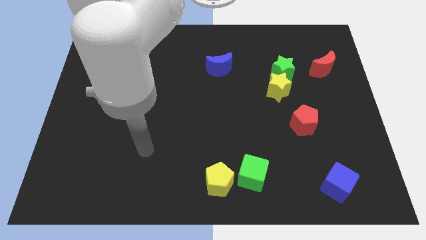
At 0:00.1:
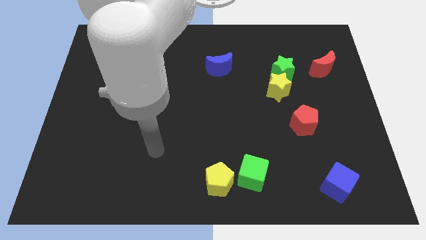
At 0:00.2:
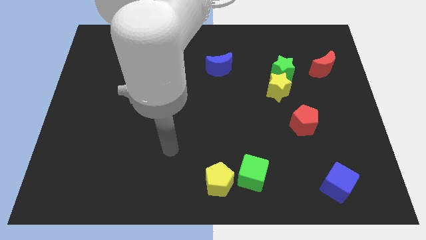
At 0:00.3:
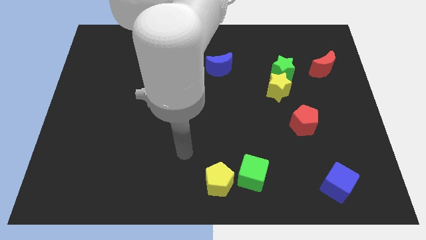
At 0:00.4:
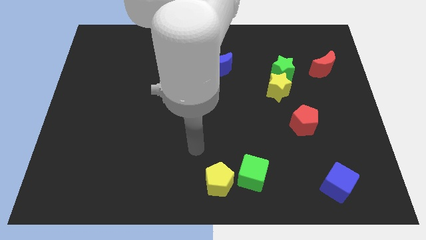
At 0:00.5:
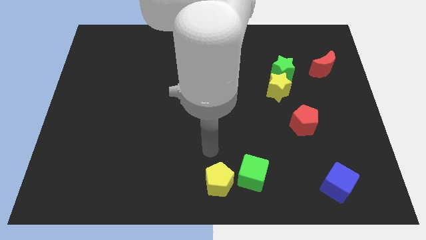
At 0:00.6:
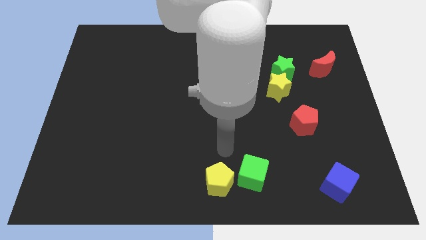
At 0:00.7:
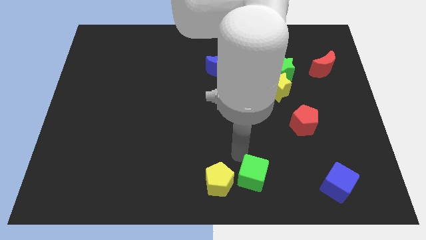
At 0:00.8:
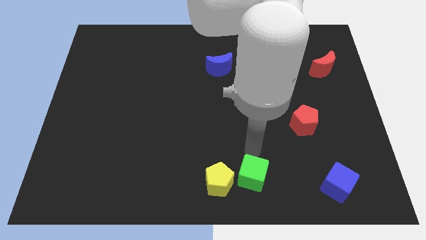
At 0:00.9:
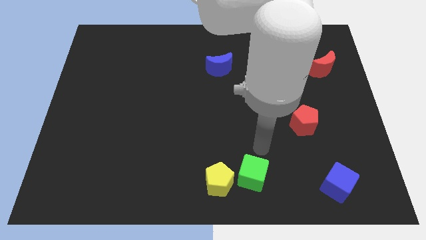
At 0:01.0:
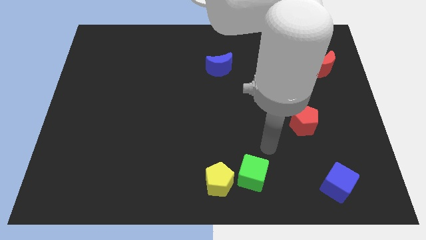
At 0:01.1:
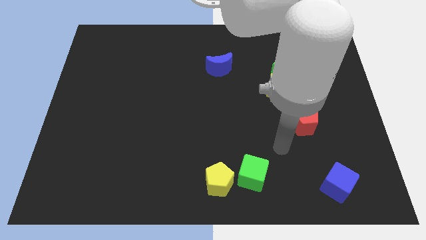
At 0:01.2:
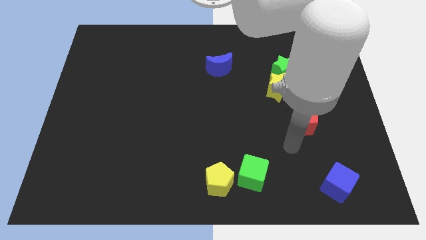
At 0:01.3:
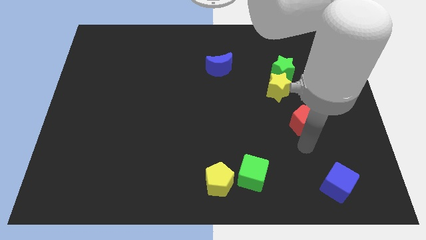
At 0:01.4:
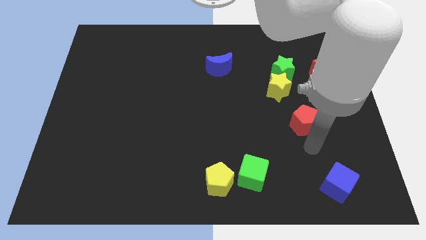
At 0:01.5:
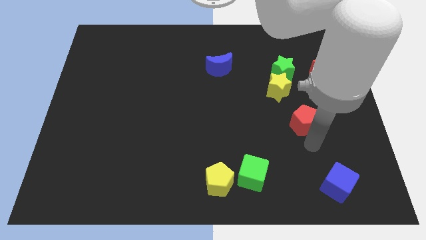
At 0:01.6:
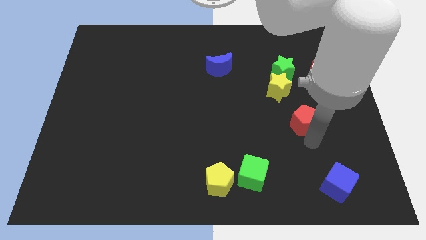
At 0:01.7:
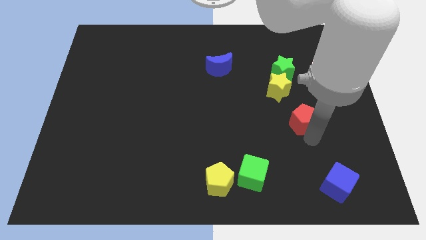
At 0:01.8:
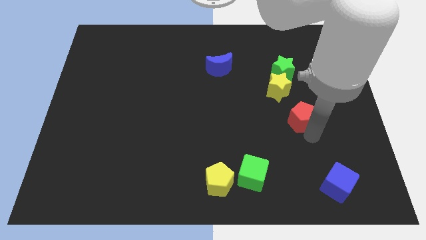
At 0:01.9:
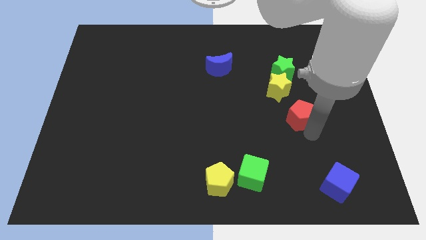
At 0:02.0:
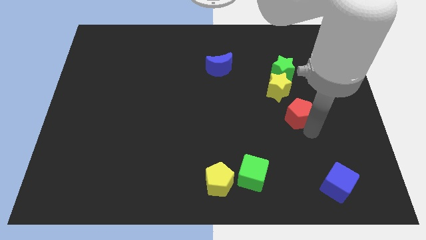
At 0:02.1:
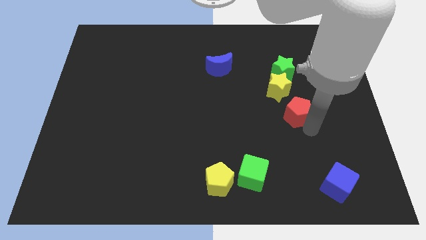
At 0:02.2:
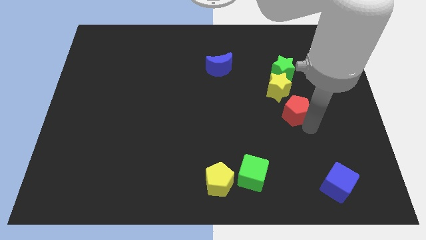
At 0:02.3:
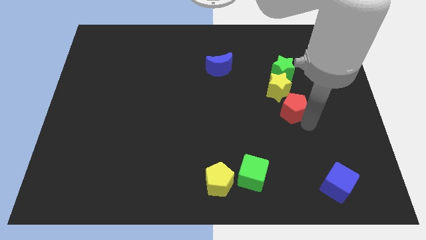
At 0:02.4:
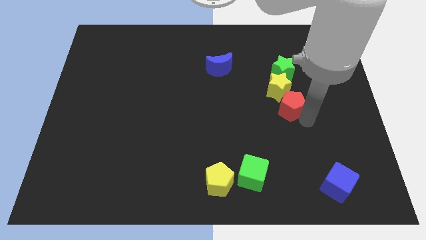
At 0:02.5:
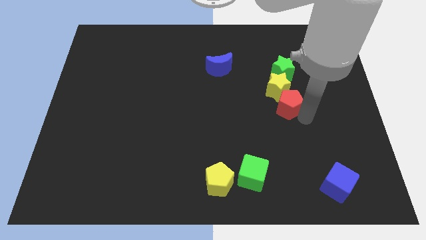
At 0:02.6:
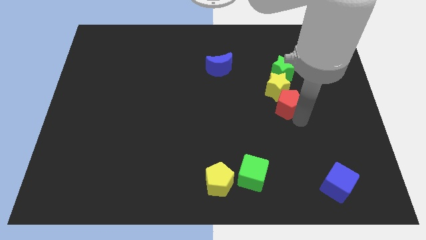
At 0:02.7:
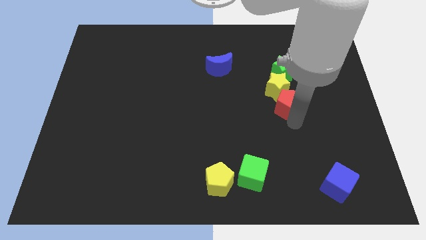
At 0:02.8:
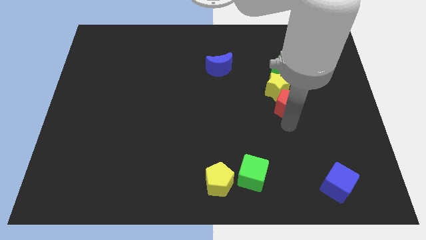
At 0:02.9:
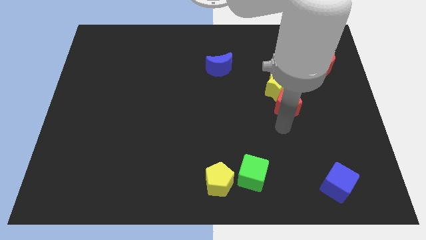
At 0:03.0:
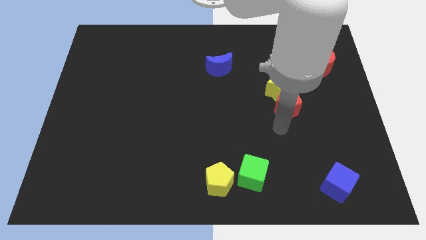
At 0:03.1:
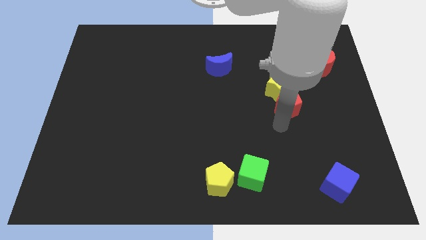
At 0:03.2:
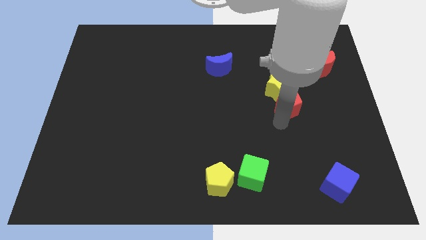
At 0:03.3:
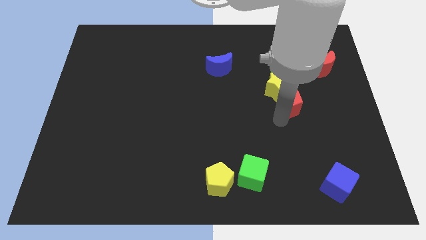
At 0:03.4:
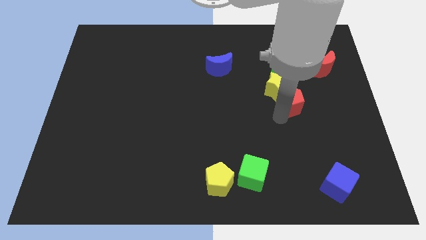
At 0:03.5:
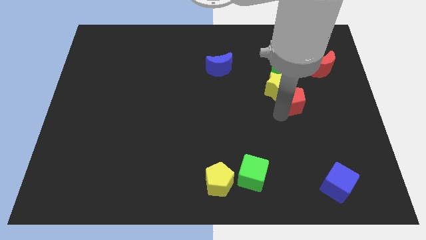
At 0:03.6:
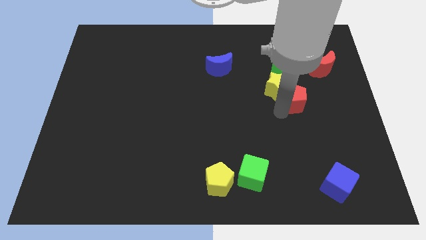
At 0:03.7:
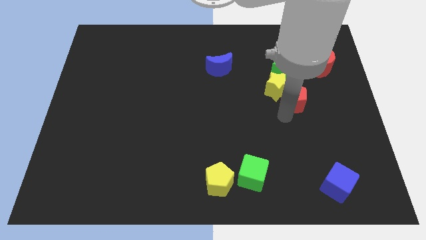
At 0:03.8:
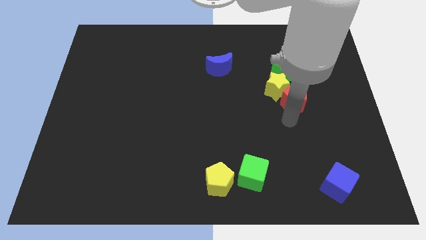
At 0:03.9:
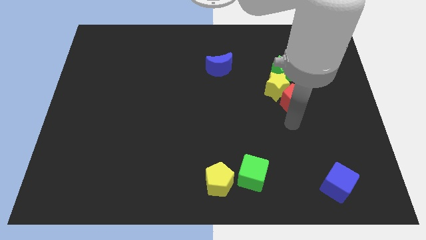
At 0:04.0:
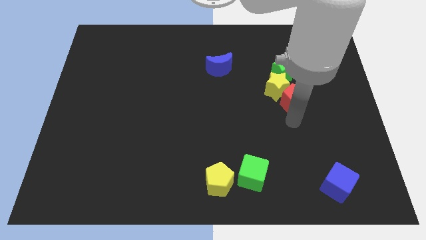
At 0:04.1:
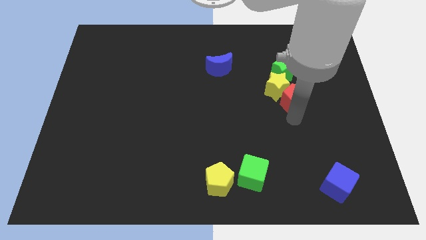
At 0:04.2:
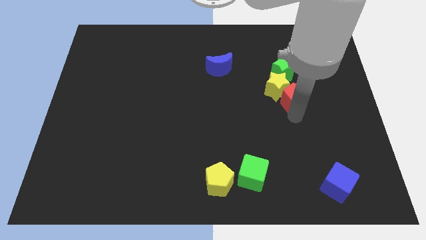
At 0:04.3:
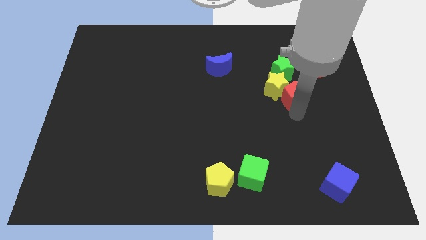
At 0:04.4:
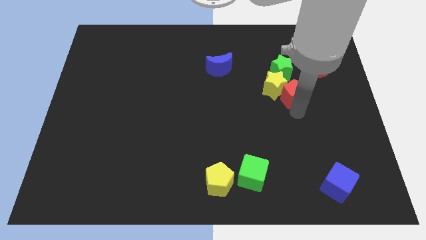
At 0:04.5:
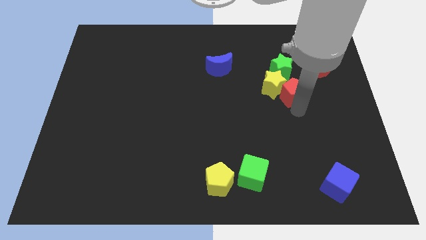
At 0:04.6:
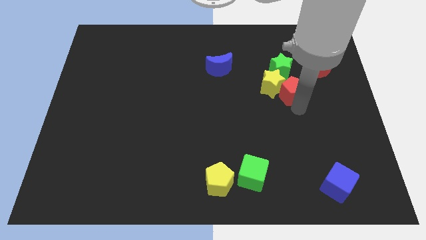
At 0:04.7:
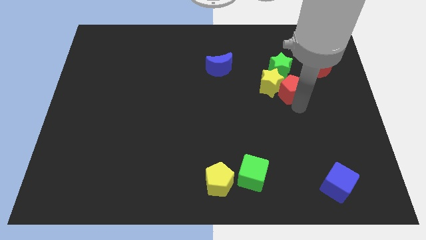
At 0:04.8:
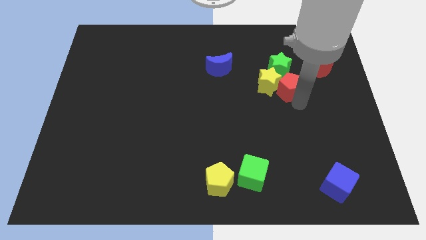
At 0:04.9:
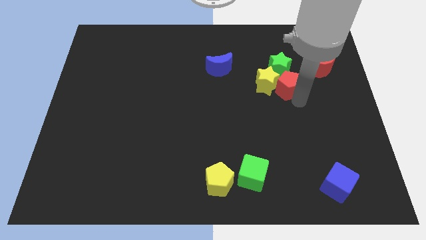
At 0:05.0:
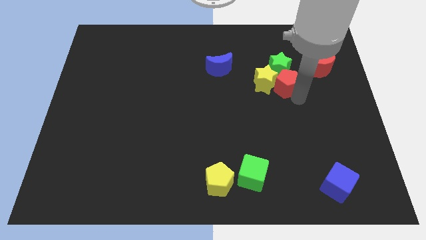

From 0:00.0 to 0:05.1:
put the red pentagon next to the green star

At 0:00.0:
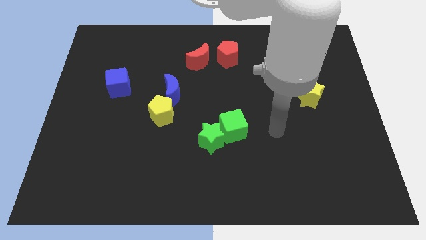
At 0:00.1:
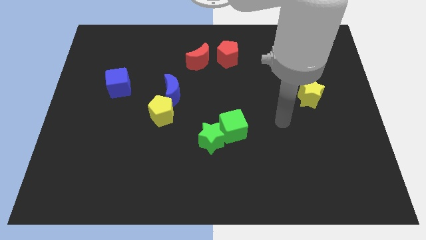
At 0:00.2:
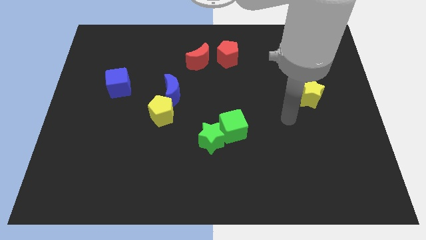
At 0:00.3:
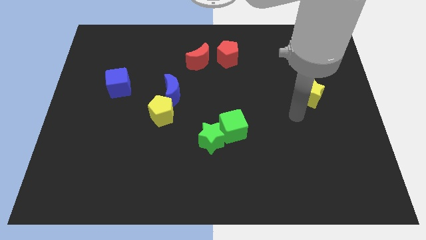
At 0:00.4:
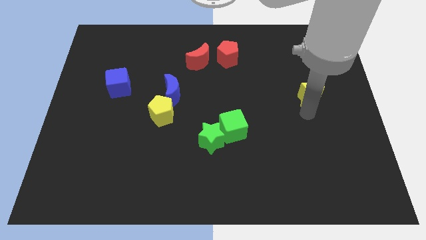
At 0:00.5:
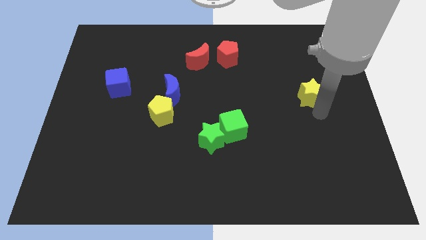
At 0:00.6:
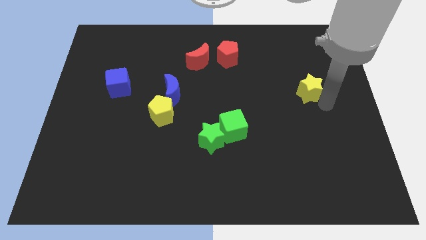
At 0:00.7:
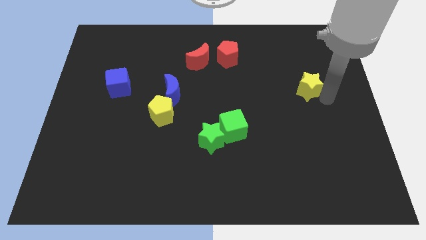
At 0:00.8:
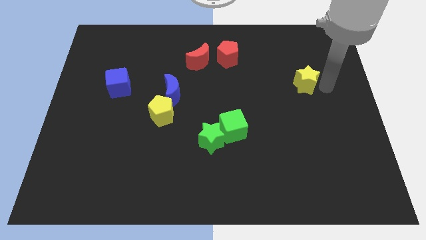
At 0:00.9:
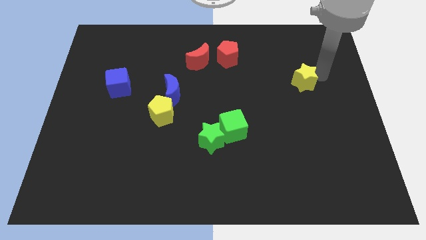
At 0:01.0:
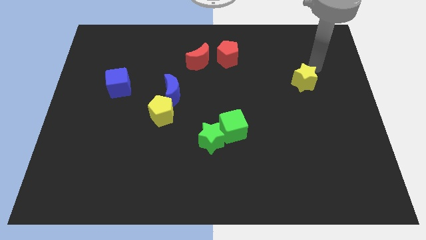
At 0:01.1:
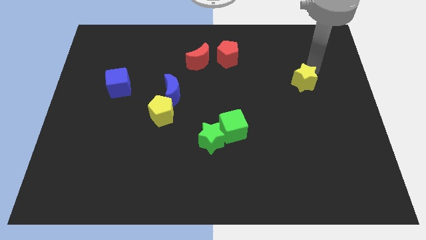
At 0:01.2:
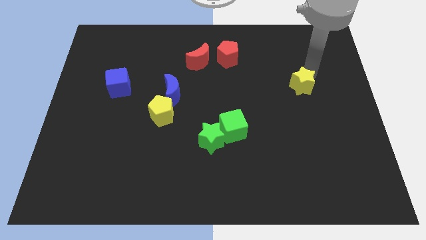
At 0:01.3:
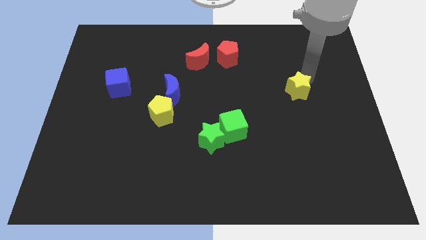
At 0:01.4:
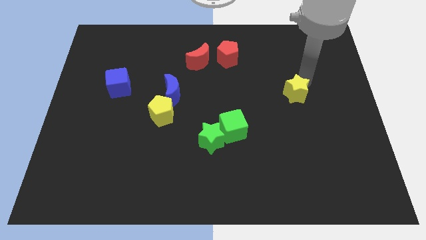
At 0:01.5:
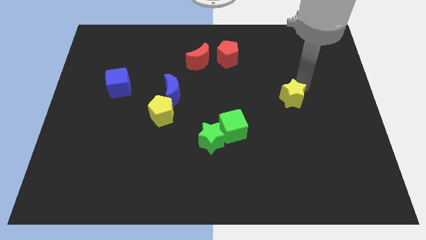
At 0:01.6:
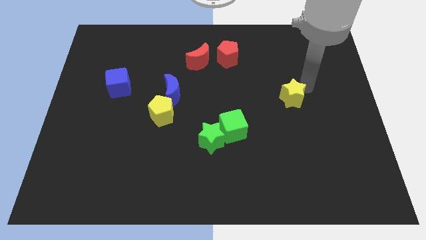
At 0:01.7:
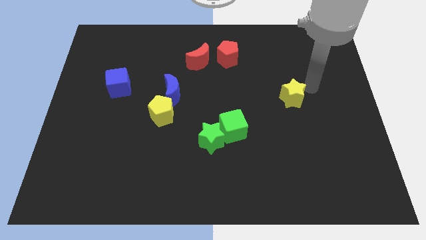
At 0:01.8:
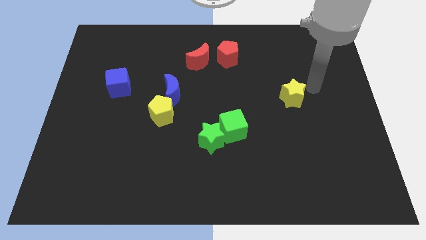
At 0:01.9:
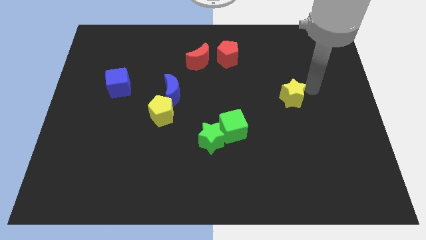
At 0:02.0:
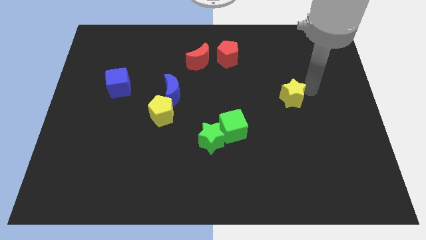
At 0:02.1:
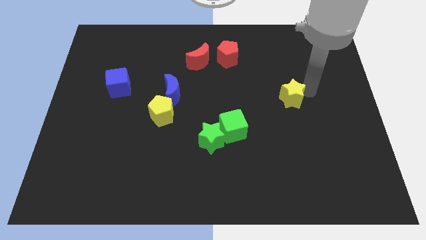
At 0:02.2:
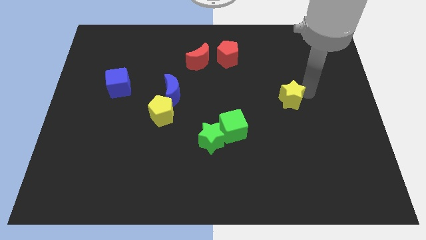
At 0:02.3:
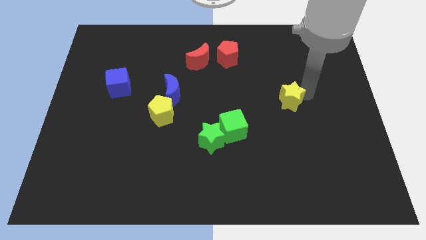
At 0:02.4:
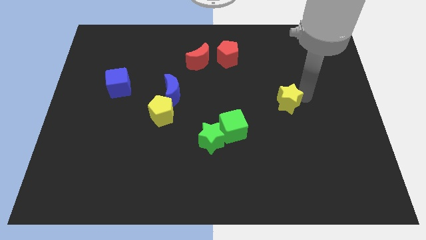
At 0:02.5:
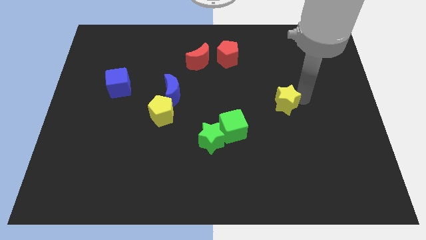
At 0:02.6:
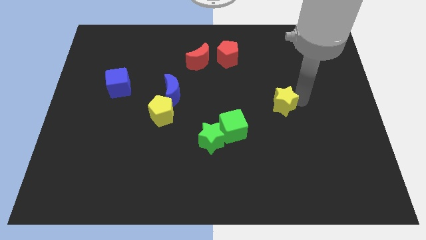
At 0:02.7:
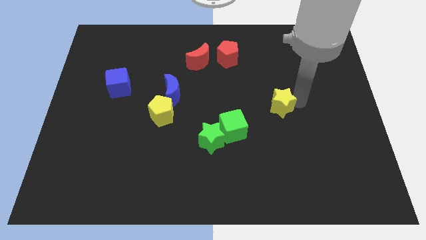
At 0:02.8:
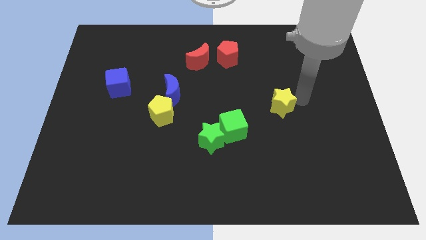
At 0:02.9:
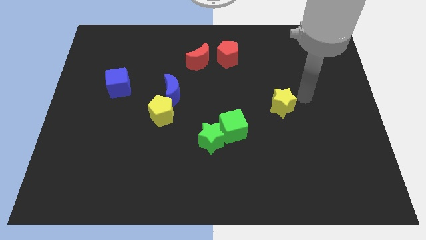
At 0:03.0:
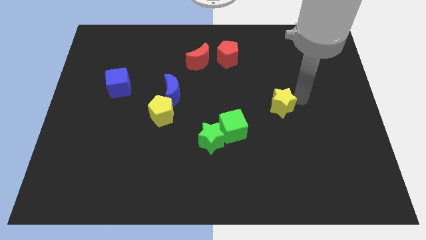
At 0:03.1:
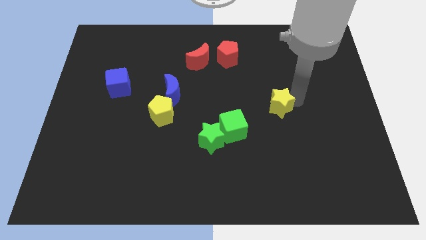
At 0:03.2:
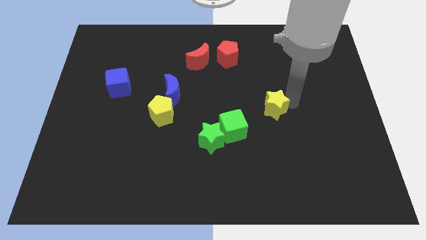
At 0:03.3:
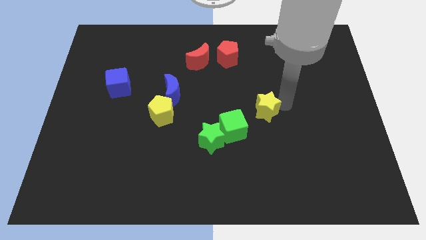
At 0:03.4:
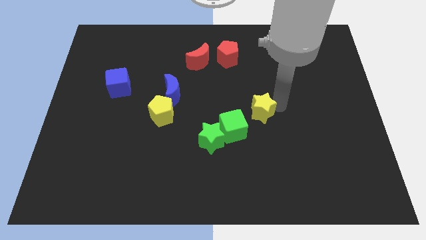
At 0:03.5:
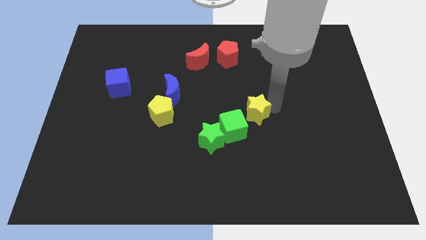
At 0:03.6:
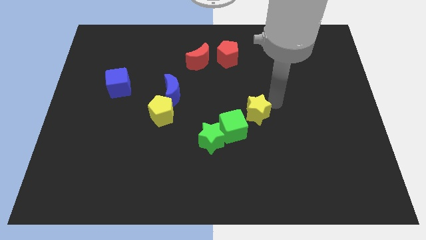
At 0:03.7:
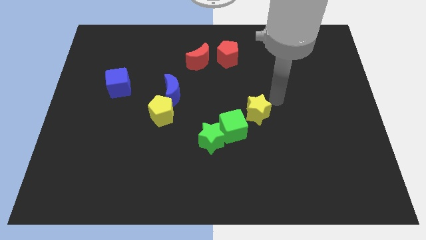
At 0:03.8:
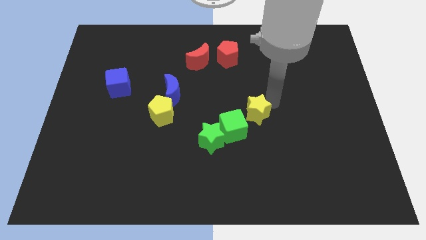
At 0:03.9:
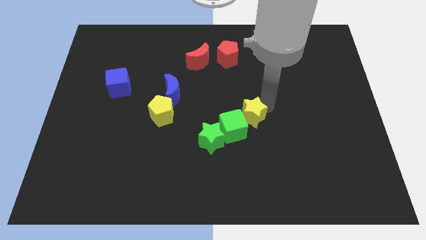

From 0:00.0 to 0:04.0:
slide the yellow star next to the green cube
